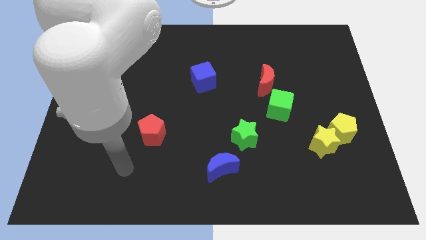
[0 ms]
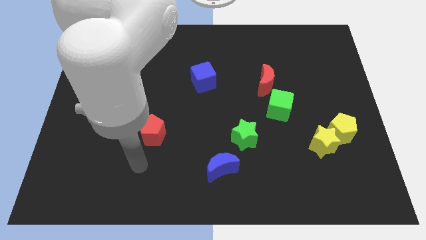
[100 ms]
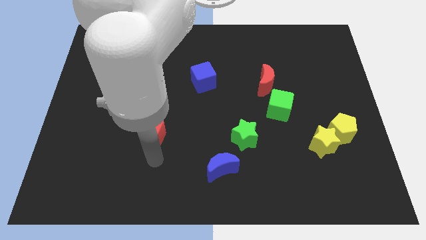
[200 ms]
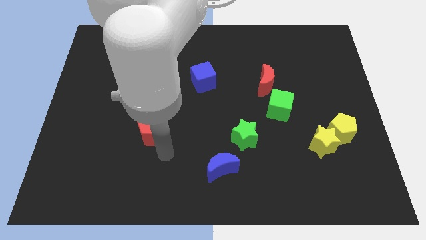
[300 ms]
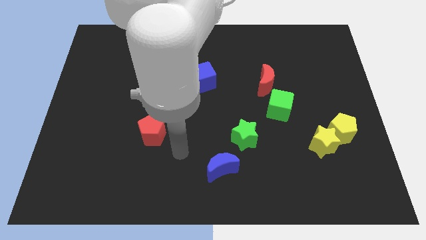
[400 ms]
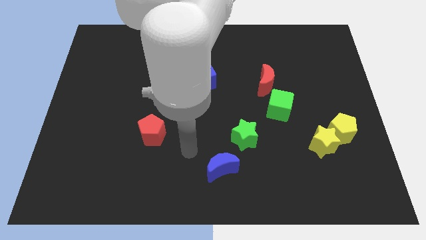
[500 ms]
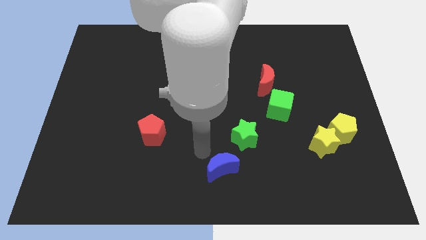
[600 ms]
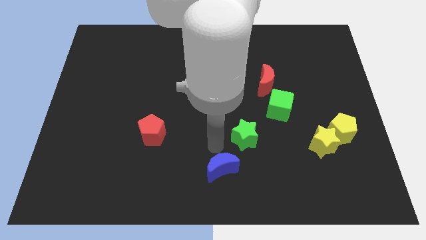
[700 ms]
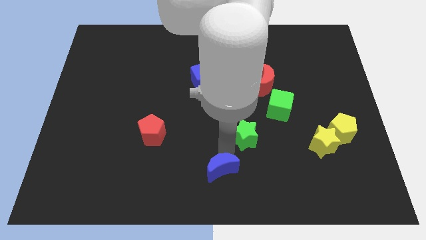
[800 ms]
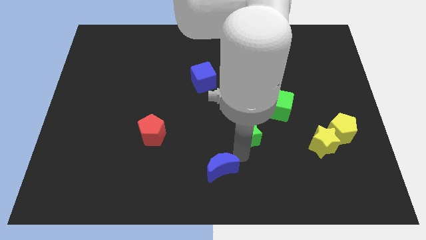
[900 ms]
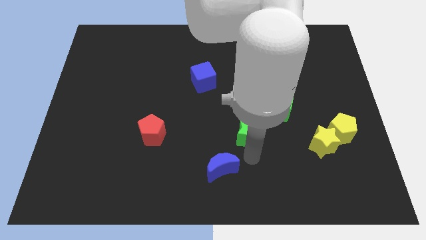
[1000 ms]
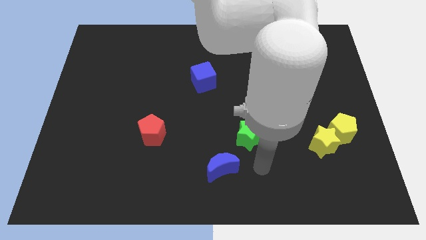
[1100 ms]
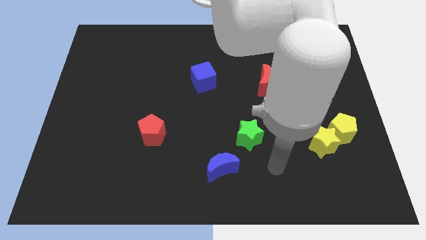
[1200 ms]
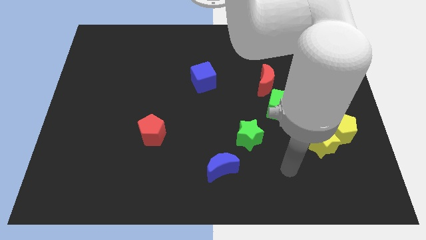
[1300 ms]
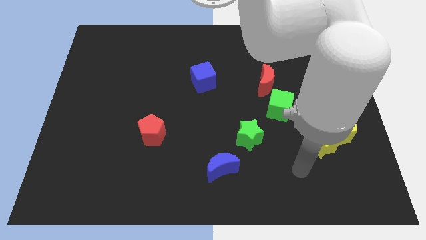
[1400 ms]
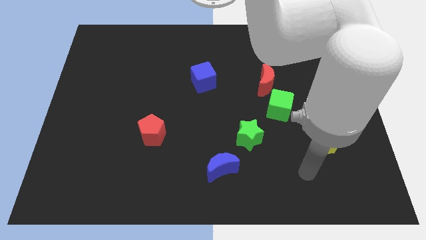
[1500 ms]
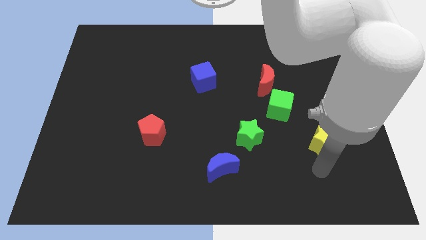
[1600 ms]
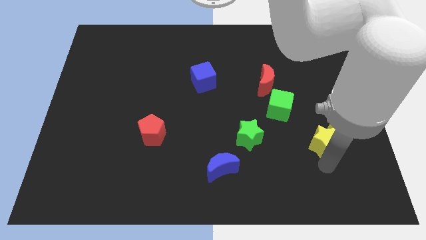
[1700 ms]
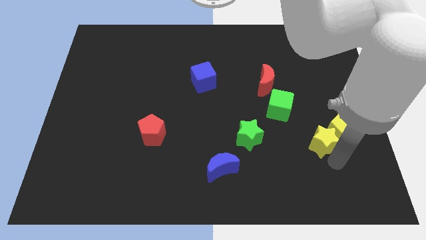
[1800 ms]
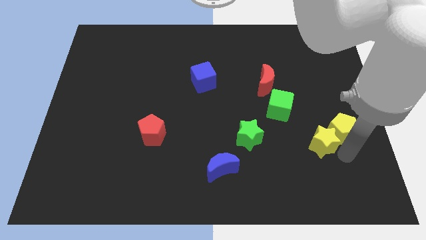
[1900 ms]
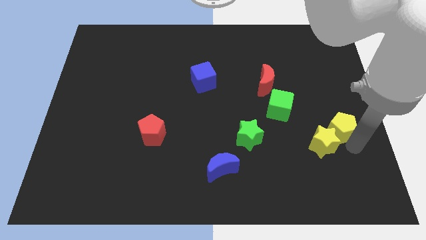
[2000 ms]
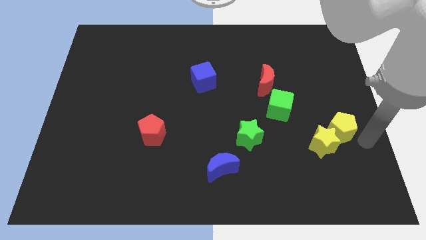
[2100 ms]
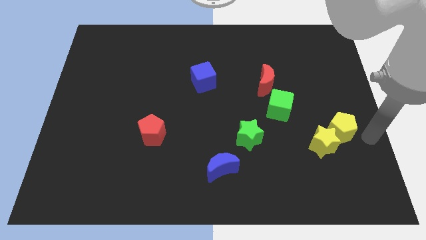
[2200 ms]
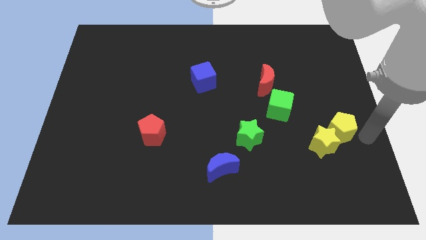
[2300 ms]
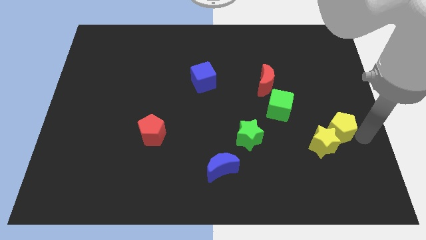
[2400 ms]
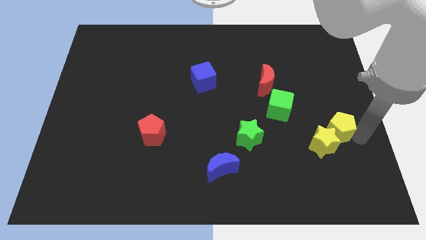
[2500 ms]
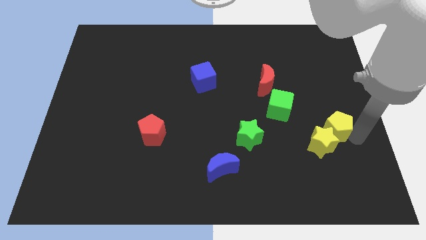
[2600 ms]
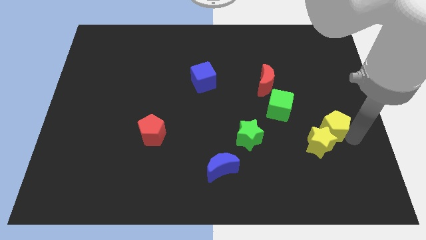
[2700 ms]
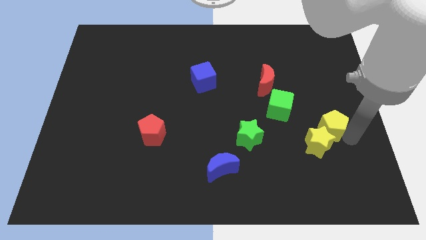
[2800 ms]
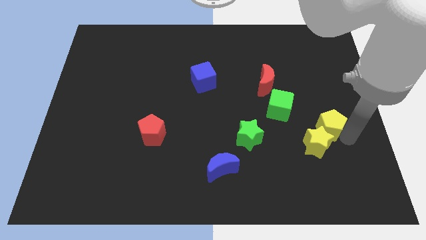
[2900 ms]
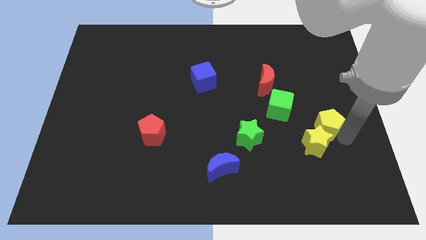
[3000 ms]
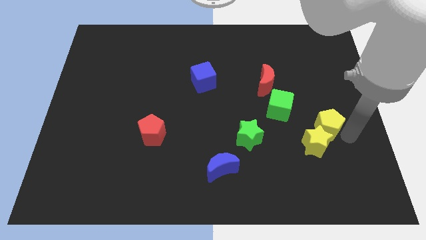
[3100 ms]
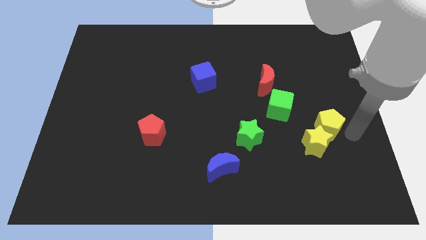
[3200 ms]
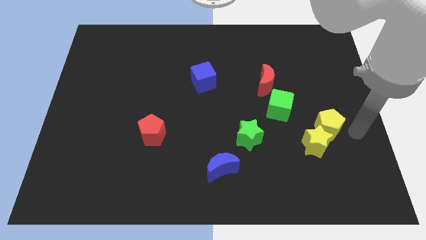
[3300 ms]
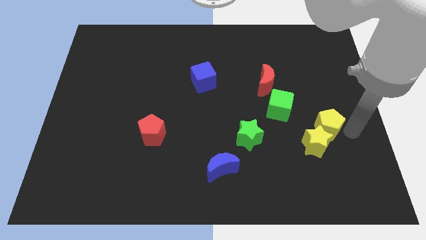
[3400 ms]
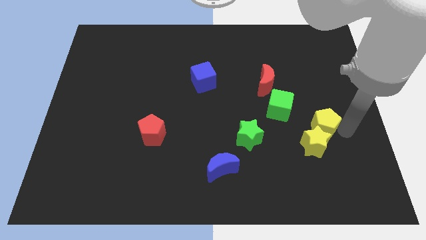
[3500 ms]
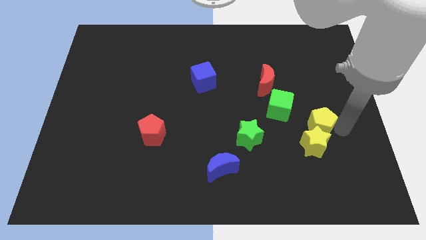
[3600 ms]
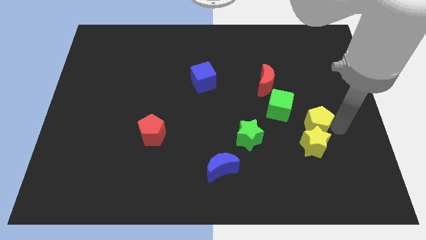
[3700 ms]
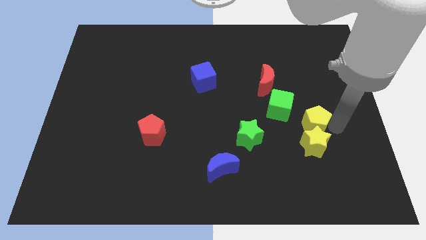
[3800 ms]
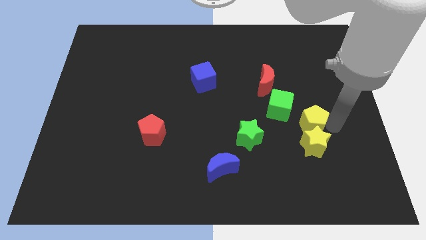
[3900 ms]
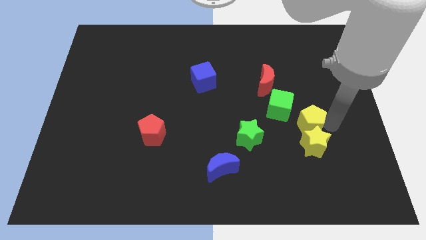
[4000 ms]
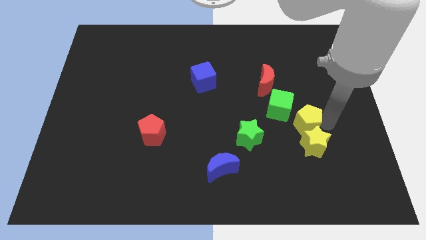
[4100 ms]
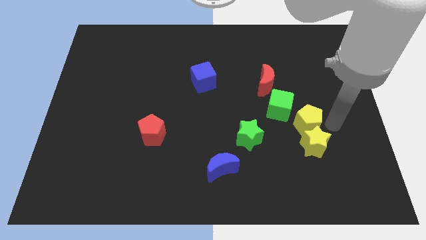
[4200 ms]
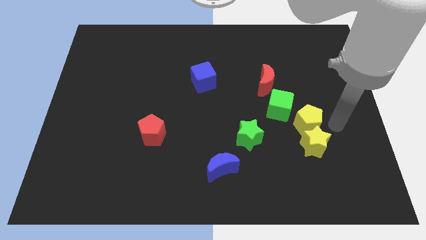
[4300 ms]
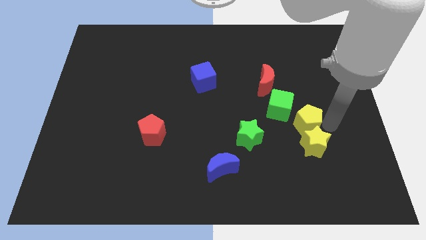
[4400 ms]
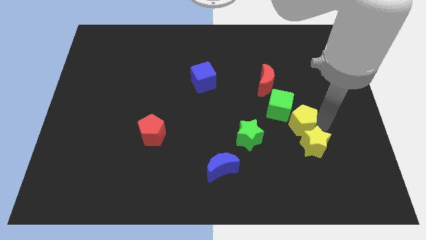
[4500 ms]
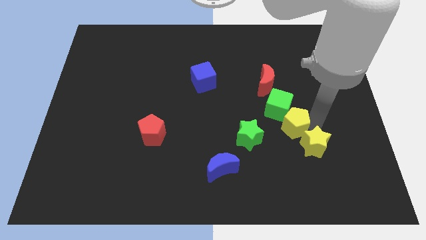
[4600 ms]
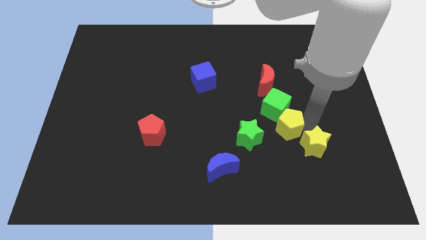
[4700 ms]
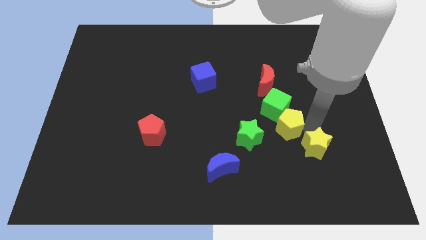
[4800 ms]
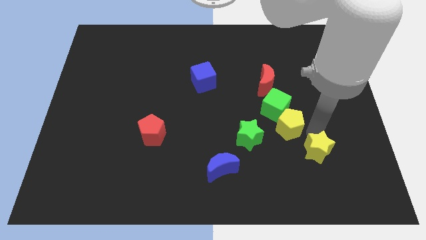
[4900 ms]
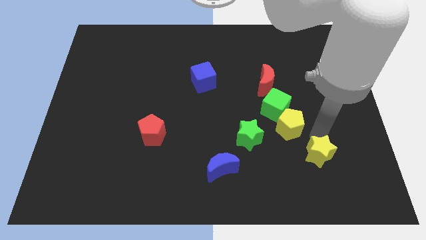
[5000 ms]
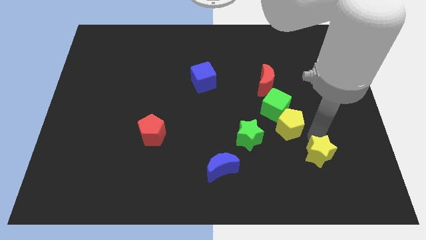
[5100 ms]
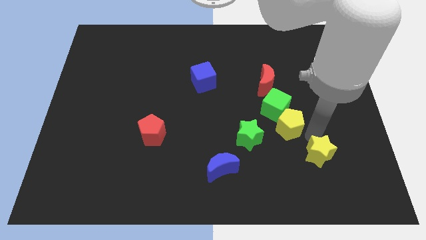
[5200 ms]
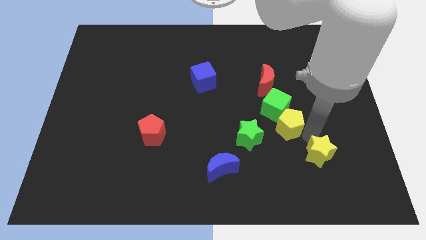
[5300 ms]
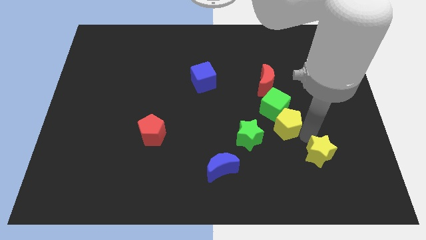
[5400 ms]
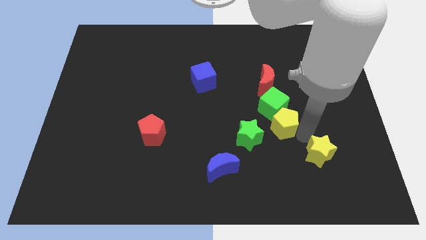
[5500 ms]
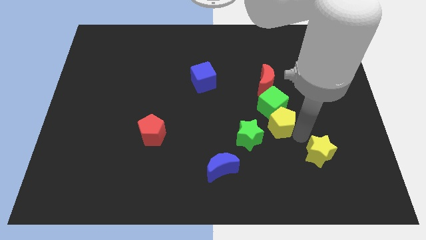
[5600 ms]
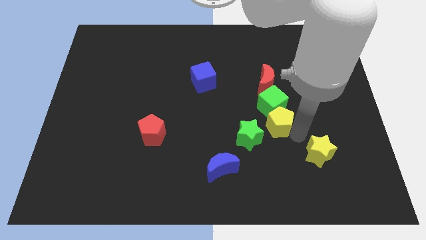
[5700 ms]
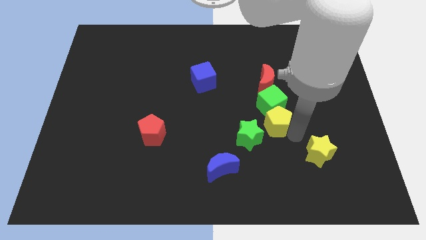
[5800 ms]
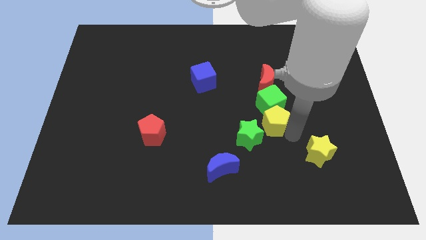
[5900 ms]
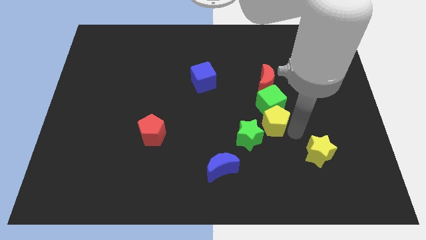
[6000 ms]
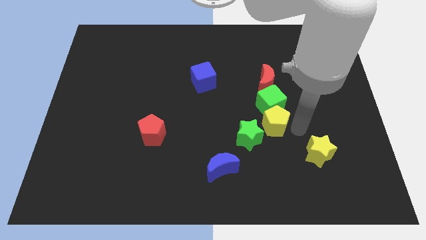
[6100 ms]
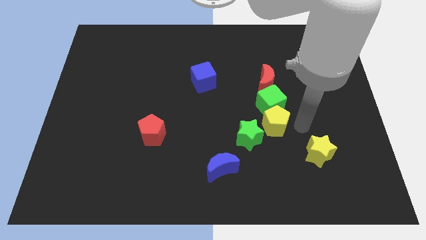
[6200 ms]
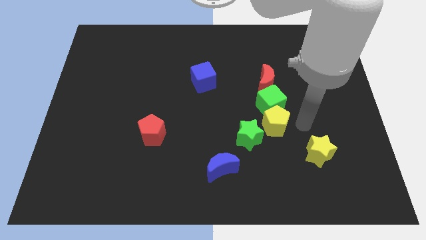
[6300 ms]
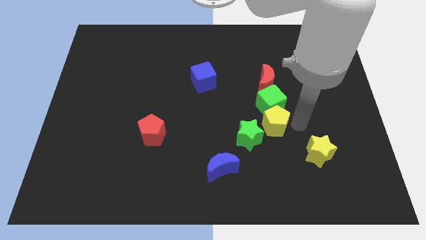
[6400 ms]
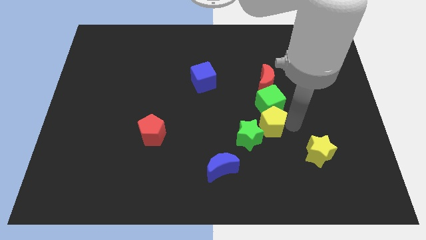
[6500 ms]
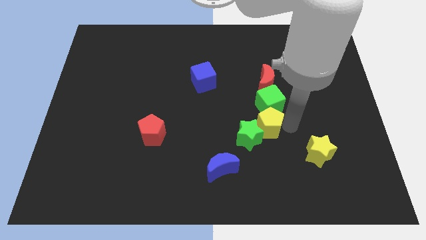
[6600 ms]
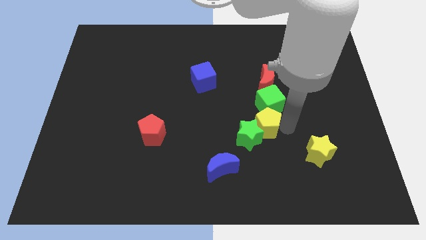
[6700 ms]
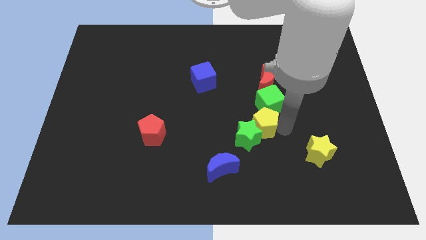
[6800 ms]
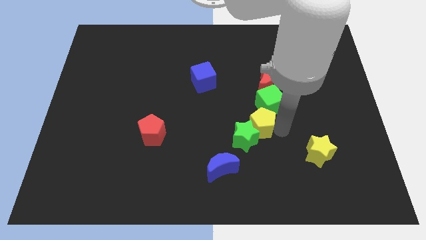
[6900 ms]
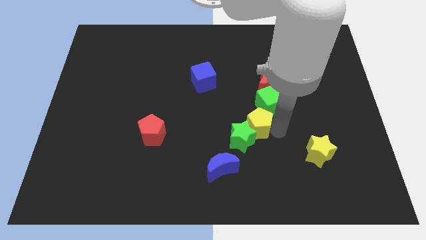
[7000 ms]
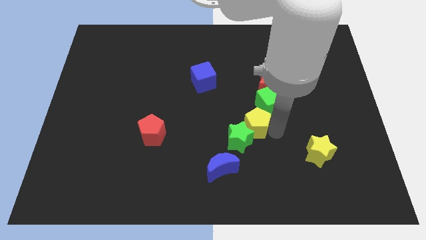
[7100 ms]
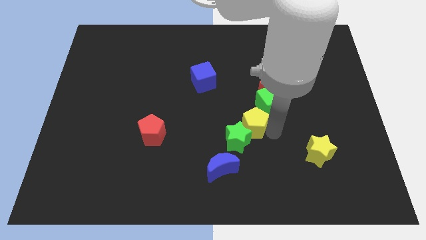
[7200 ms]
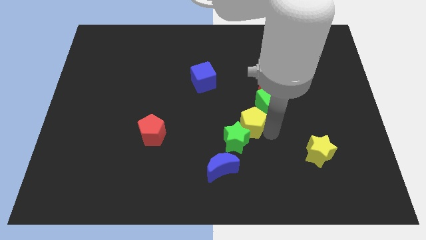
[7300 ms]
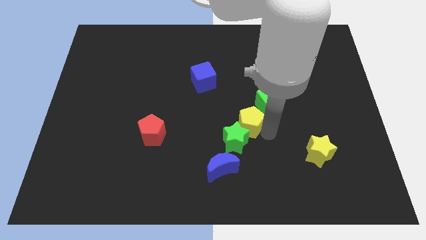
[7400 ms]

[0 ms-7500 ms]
move the yellow pentagon left

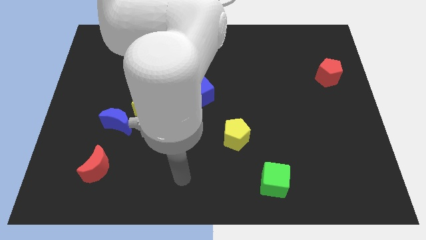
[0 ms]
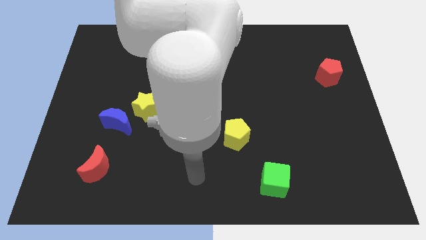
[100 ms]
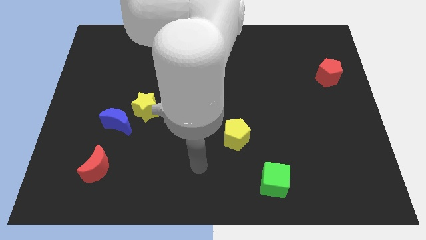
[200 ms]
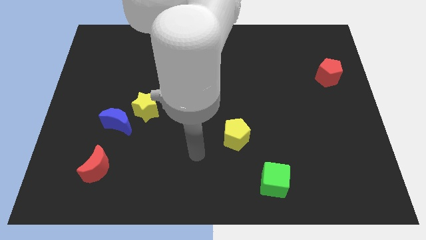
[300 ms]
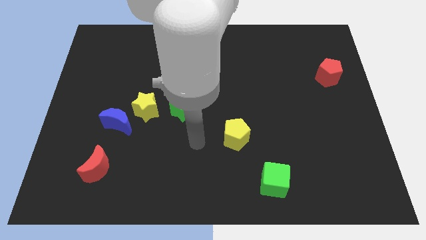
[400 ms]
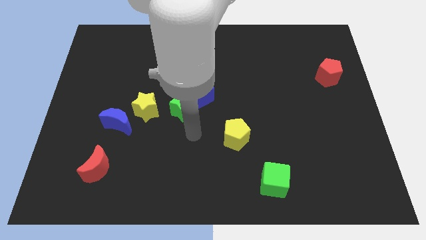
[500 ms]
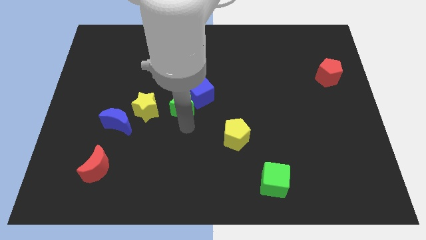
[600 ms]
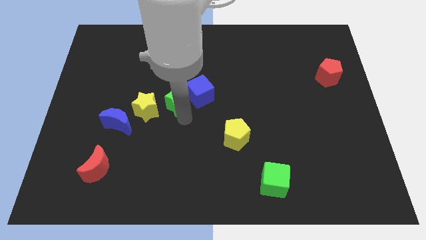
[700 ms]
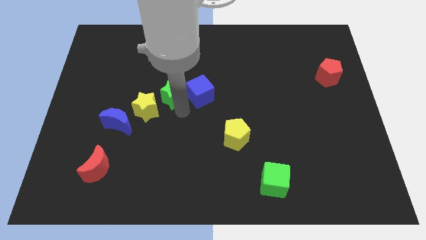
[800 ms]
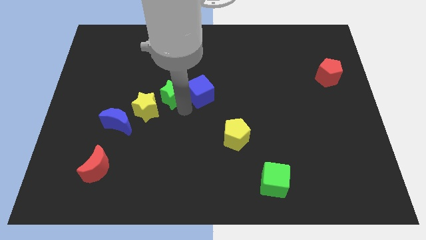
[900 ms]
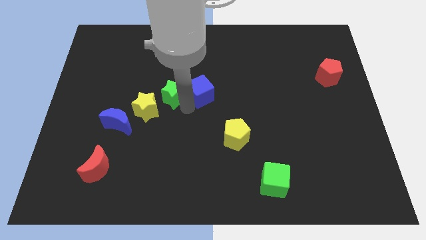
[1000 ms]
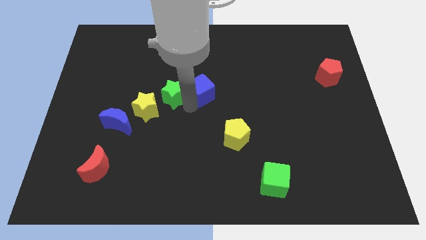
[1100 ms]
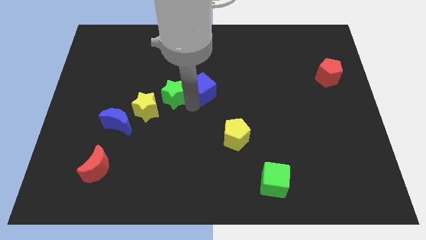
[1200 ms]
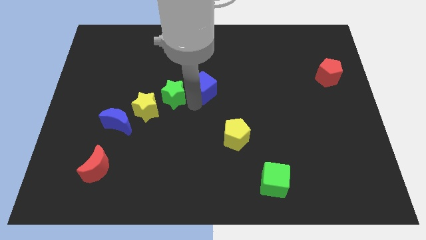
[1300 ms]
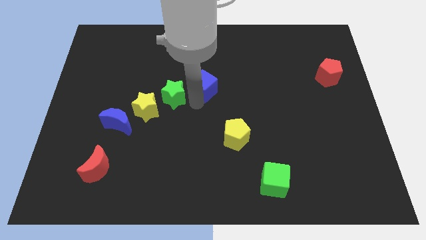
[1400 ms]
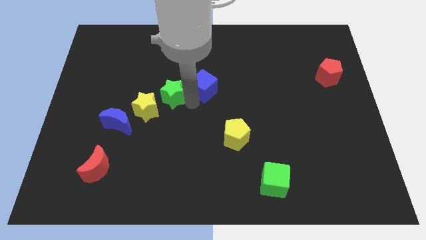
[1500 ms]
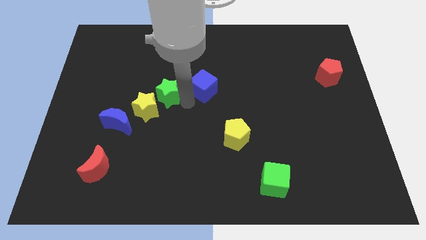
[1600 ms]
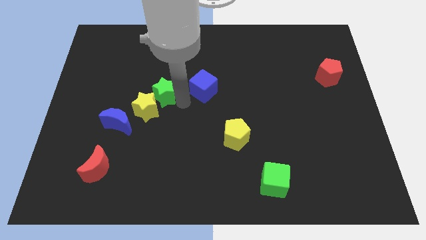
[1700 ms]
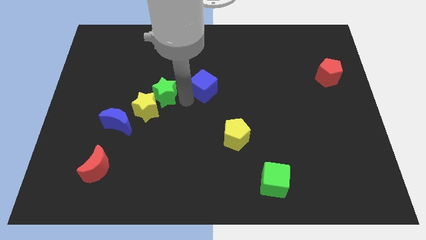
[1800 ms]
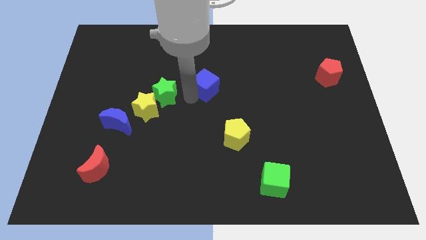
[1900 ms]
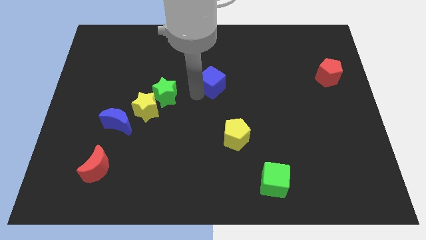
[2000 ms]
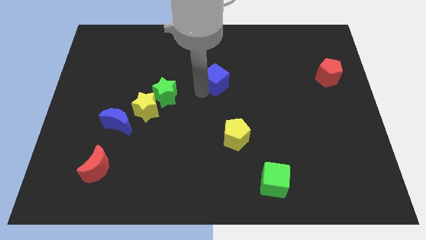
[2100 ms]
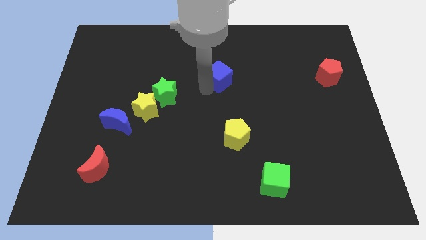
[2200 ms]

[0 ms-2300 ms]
move the blue cube up and then to the right somewhat
